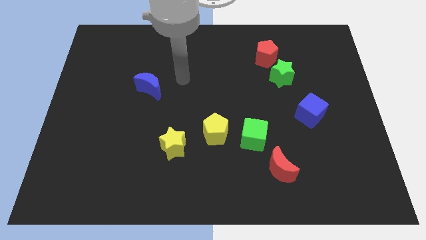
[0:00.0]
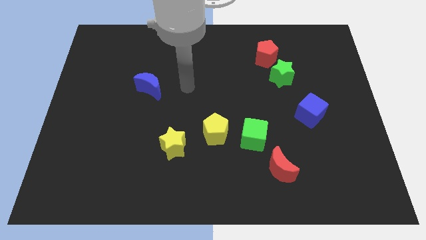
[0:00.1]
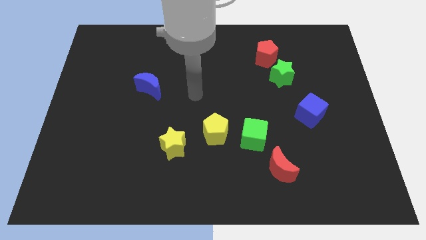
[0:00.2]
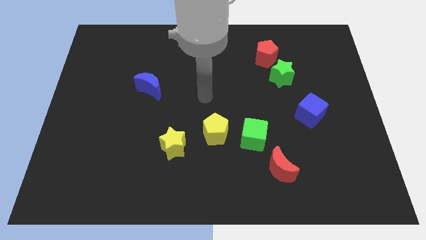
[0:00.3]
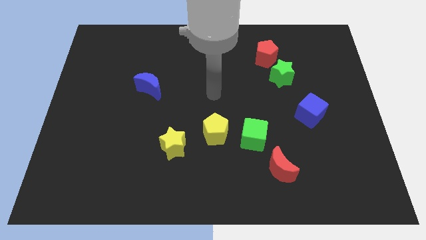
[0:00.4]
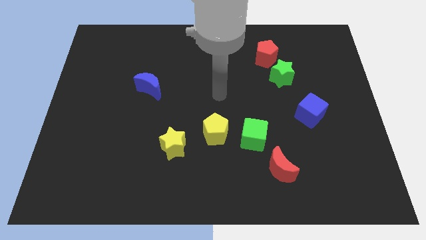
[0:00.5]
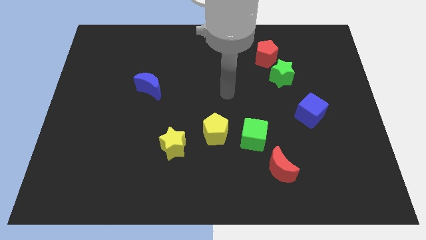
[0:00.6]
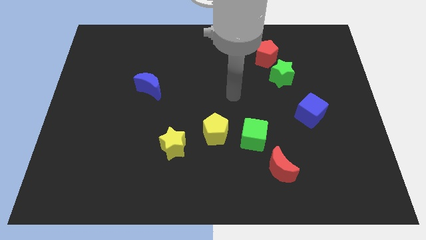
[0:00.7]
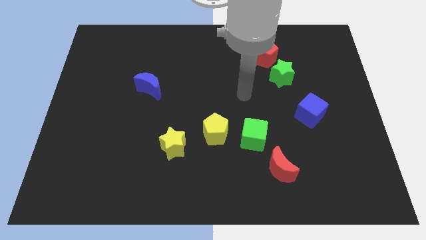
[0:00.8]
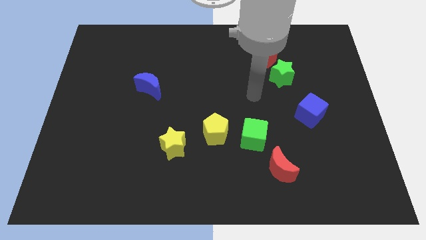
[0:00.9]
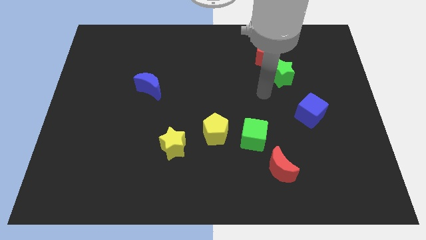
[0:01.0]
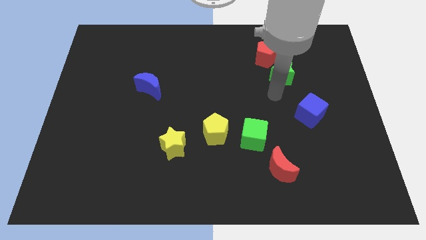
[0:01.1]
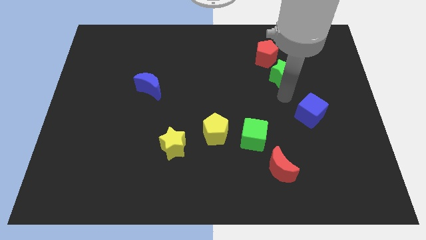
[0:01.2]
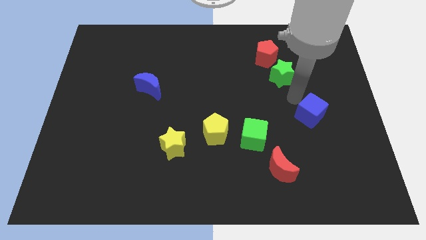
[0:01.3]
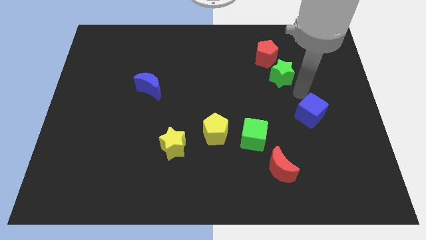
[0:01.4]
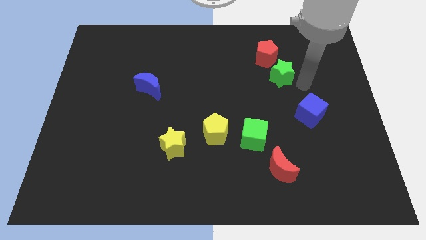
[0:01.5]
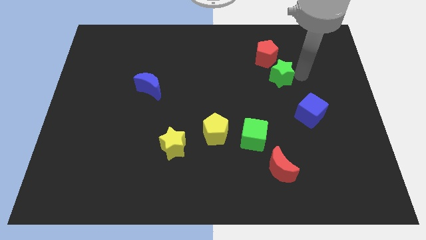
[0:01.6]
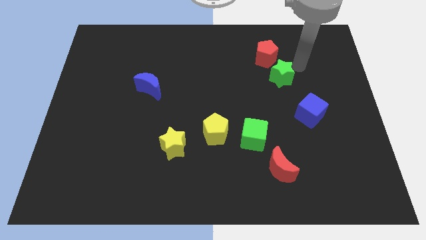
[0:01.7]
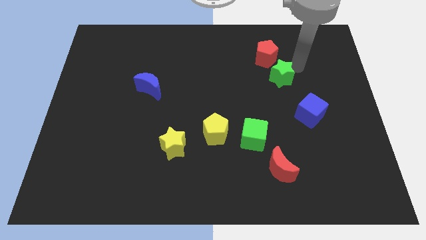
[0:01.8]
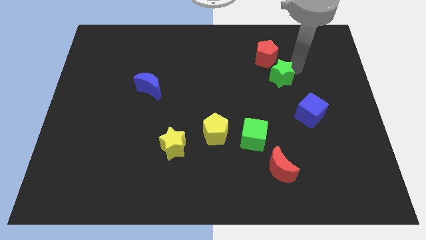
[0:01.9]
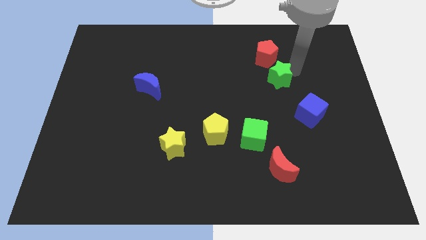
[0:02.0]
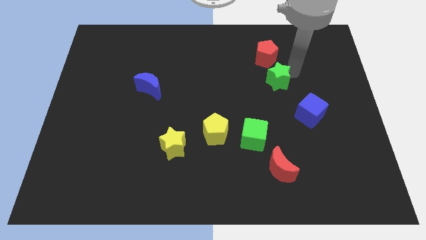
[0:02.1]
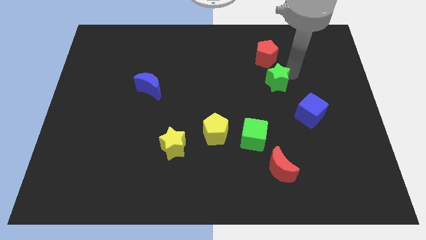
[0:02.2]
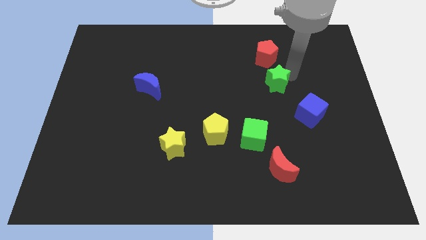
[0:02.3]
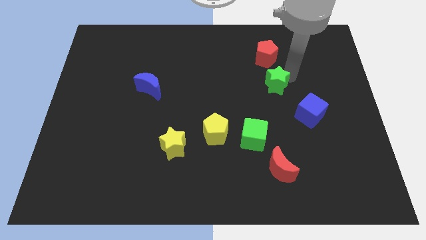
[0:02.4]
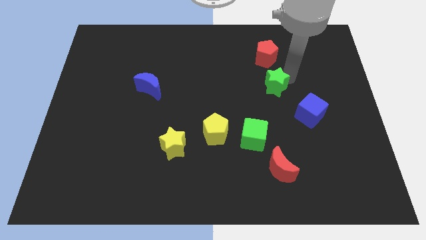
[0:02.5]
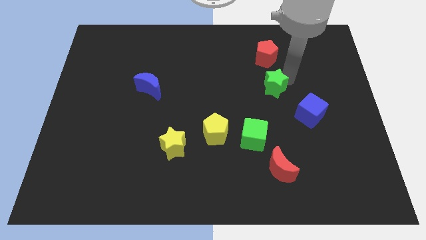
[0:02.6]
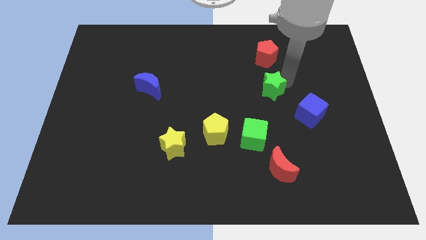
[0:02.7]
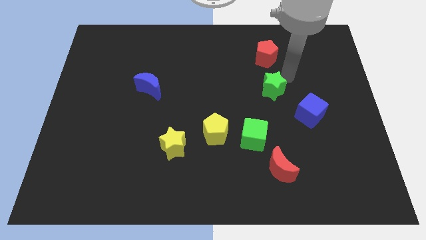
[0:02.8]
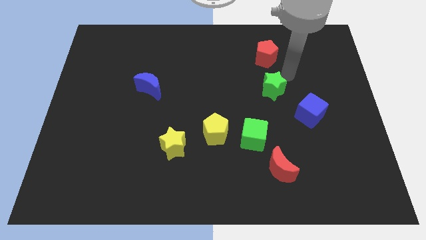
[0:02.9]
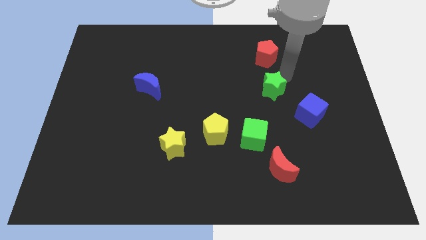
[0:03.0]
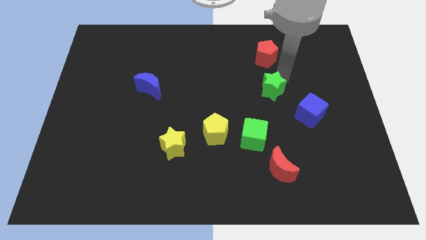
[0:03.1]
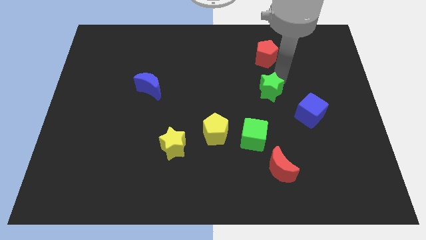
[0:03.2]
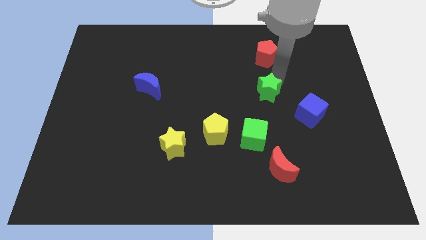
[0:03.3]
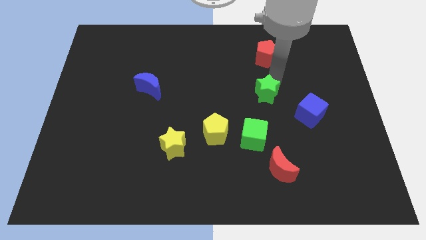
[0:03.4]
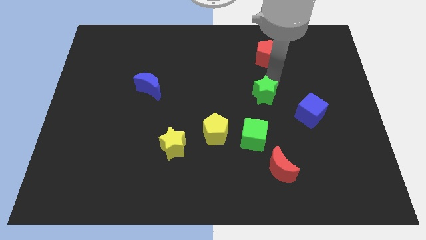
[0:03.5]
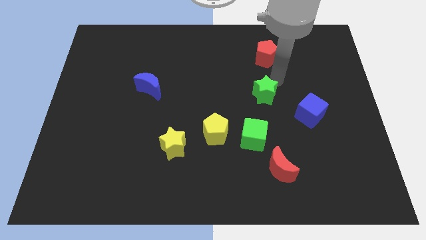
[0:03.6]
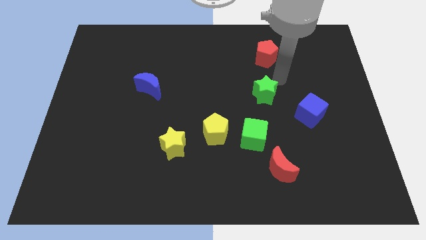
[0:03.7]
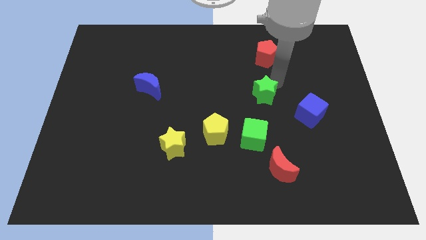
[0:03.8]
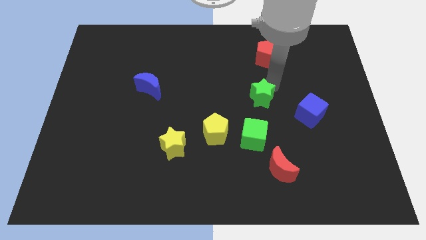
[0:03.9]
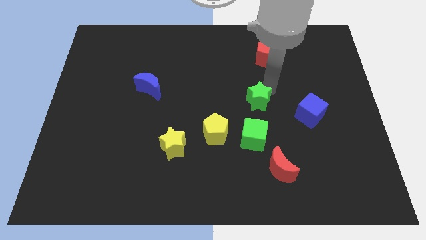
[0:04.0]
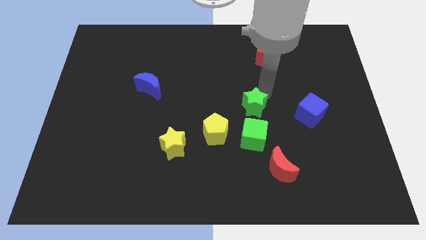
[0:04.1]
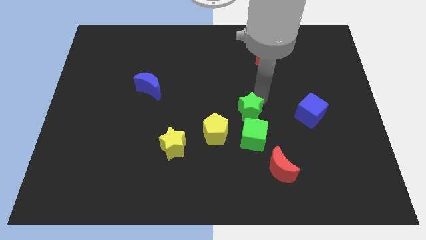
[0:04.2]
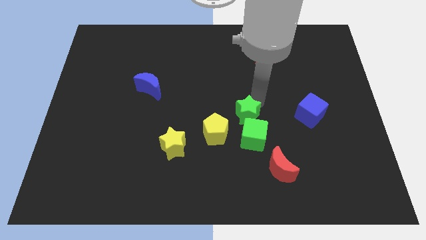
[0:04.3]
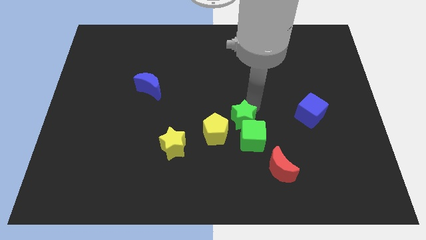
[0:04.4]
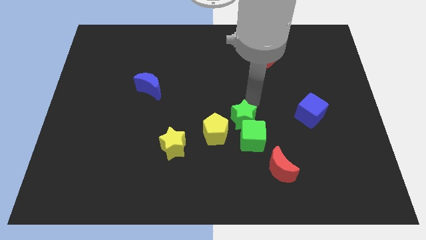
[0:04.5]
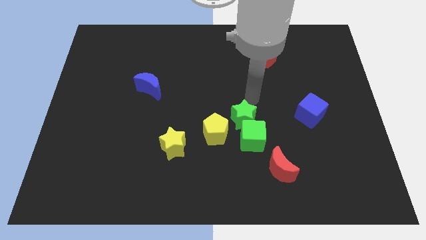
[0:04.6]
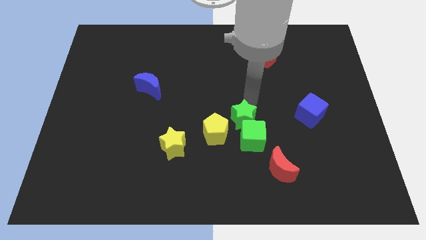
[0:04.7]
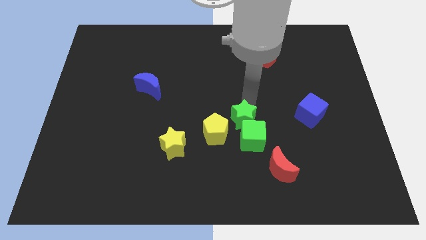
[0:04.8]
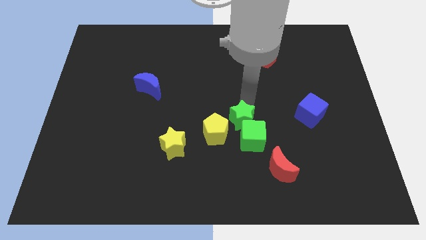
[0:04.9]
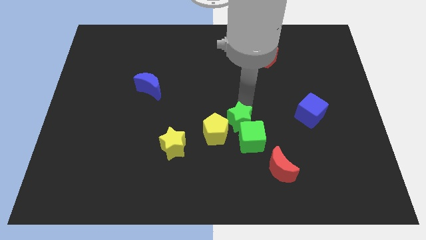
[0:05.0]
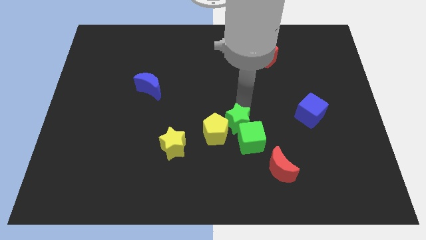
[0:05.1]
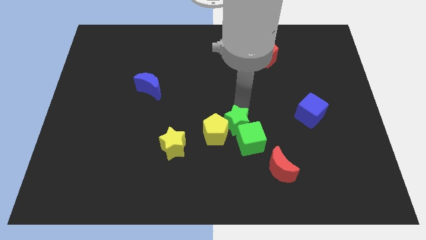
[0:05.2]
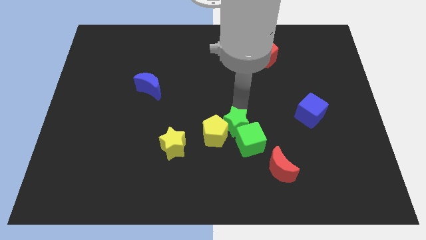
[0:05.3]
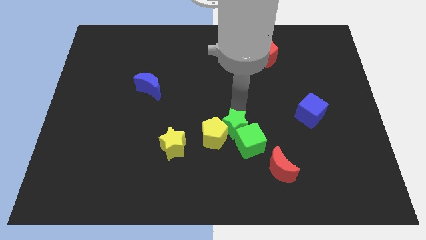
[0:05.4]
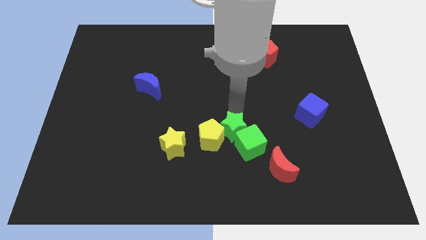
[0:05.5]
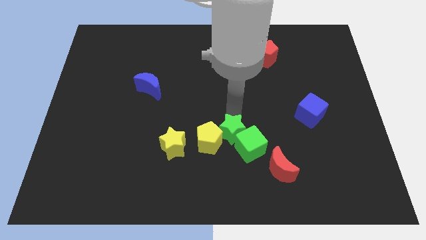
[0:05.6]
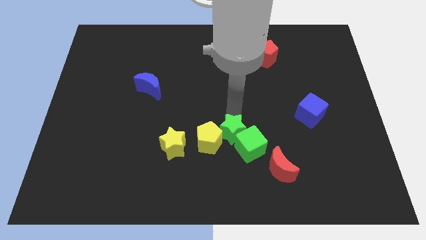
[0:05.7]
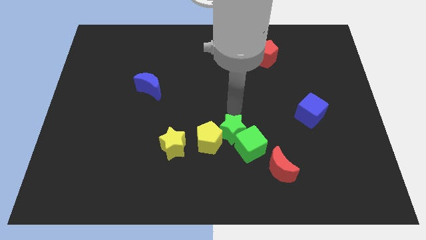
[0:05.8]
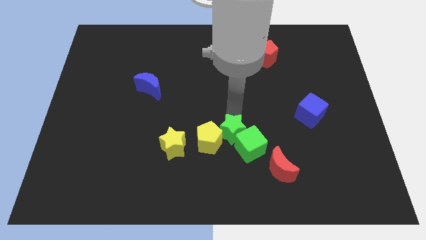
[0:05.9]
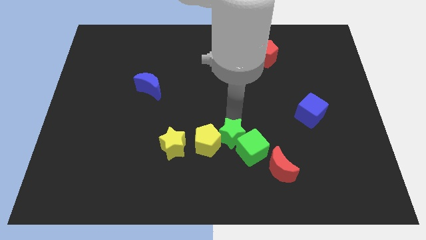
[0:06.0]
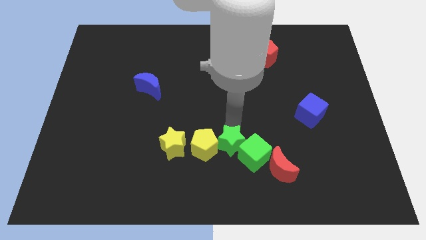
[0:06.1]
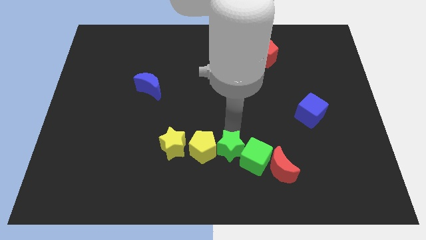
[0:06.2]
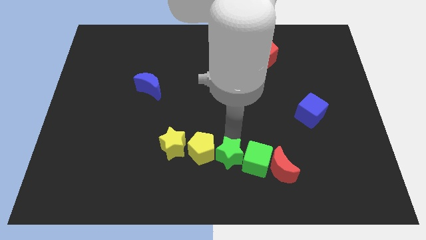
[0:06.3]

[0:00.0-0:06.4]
move the green star to the bottom side

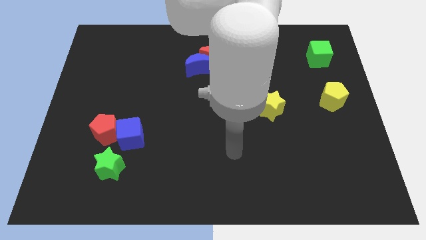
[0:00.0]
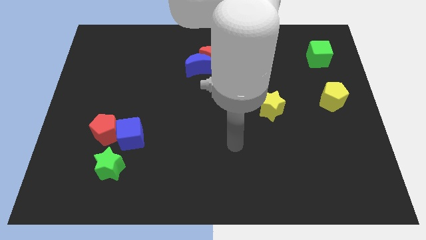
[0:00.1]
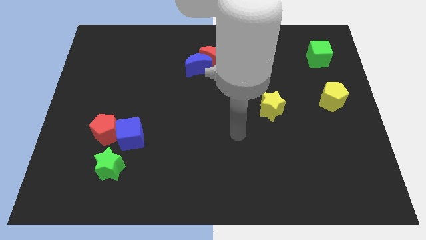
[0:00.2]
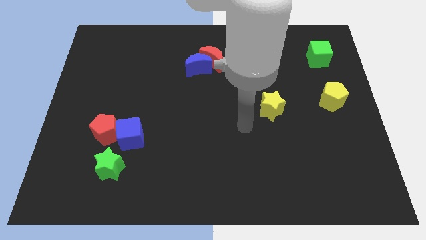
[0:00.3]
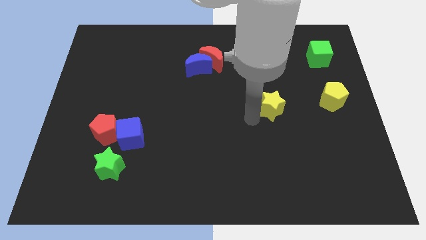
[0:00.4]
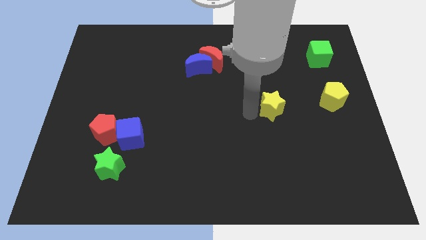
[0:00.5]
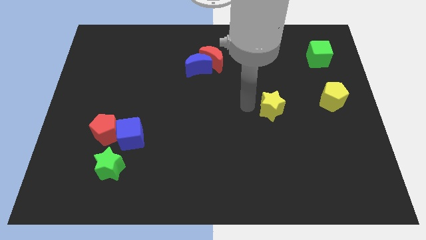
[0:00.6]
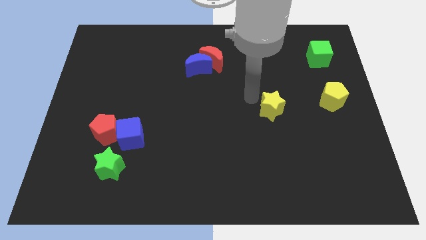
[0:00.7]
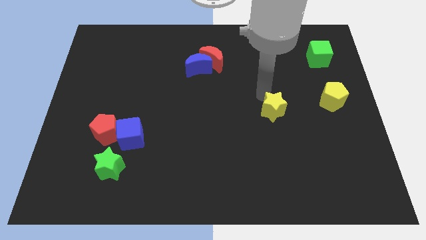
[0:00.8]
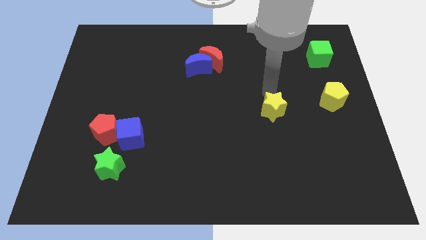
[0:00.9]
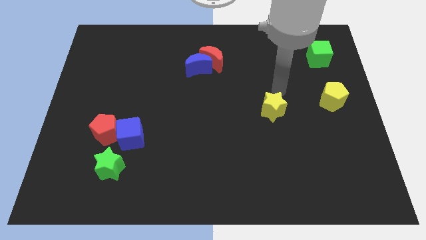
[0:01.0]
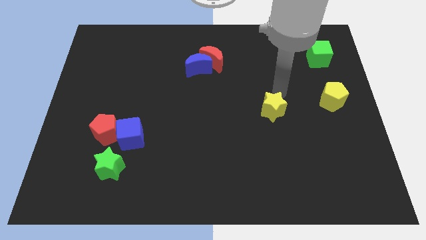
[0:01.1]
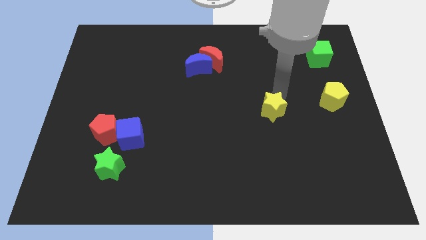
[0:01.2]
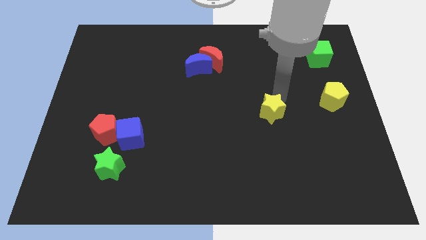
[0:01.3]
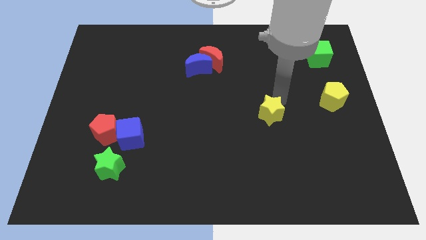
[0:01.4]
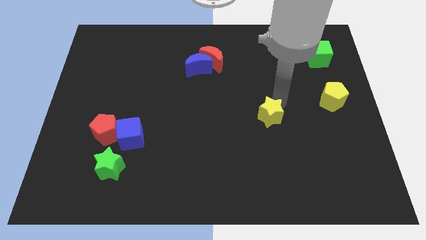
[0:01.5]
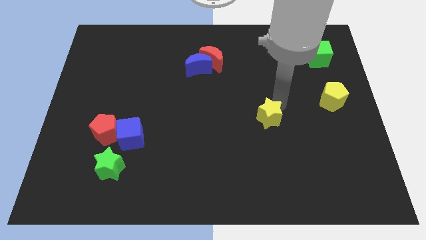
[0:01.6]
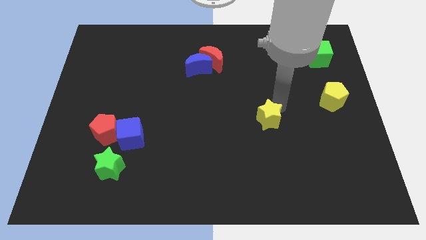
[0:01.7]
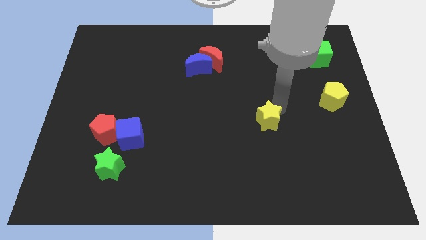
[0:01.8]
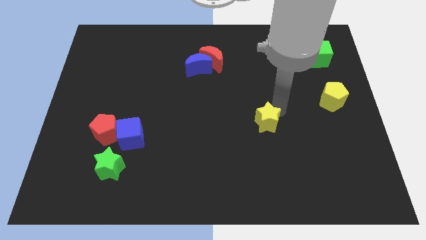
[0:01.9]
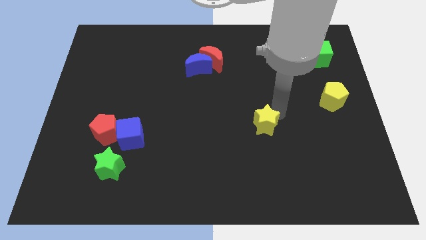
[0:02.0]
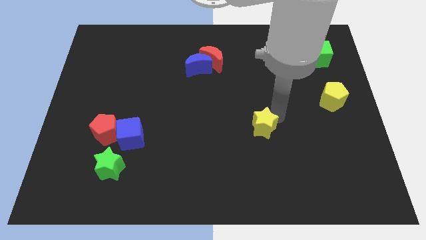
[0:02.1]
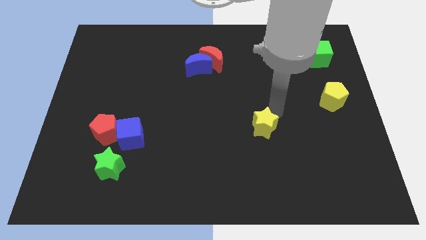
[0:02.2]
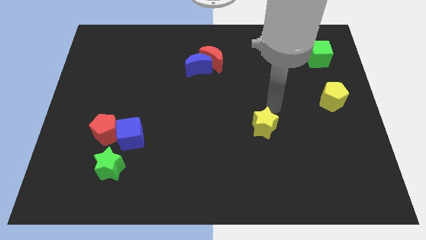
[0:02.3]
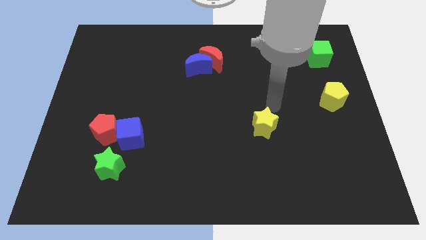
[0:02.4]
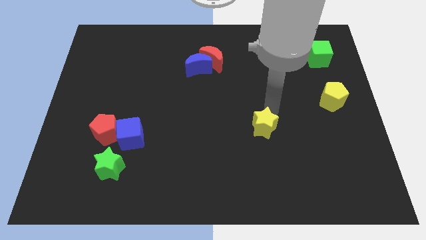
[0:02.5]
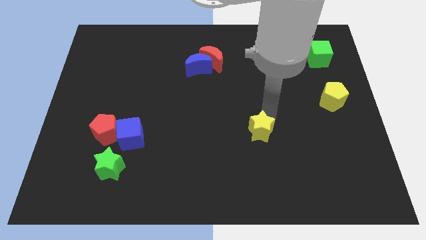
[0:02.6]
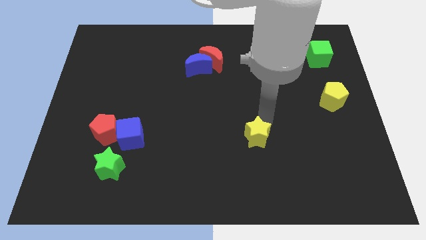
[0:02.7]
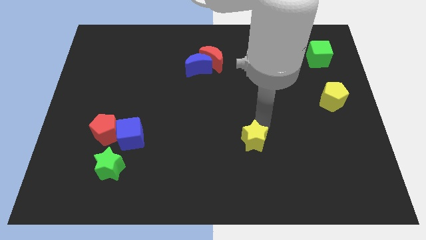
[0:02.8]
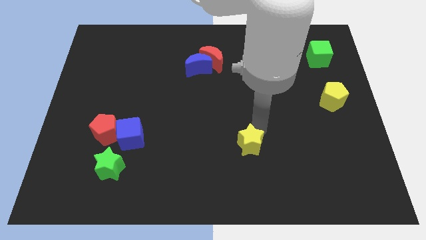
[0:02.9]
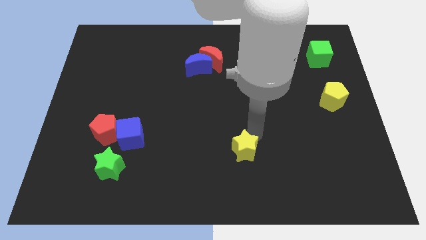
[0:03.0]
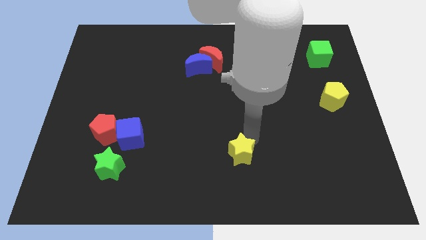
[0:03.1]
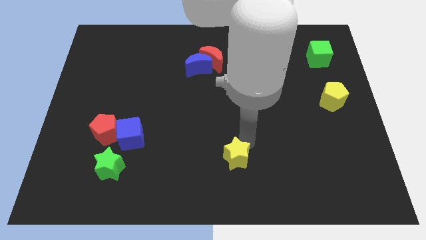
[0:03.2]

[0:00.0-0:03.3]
push the yellow star to the bottom side
